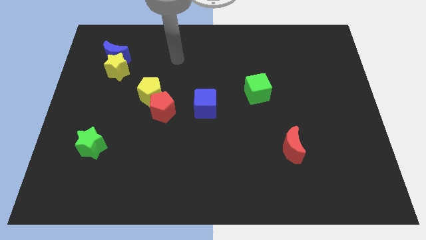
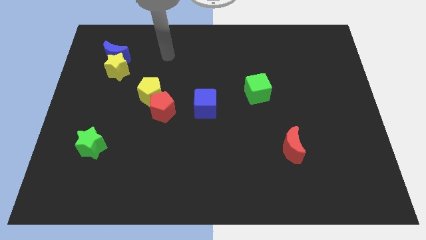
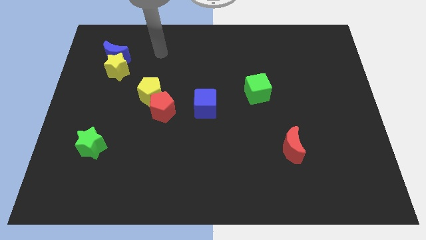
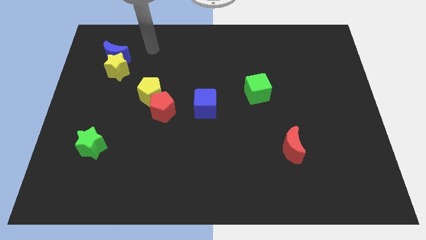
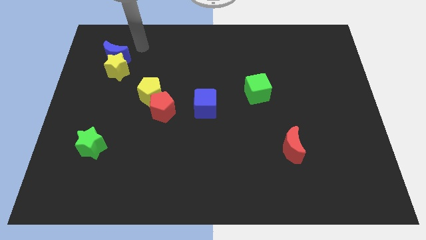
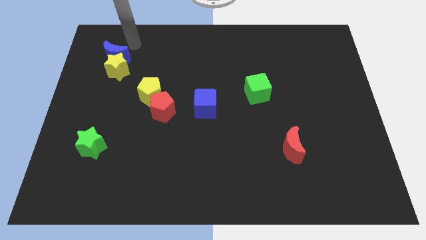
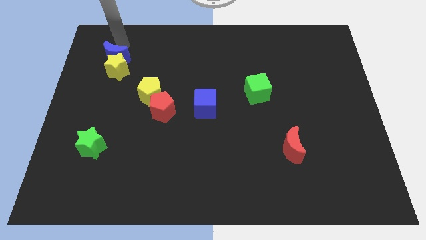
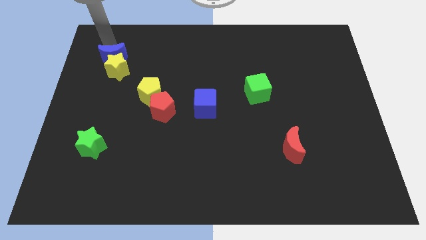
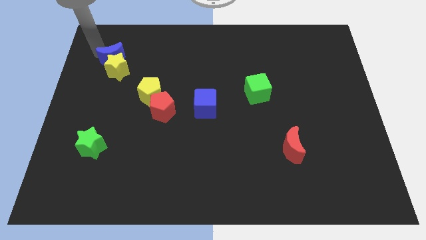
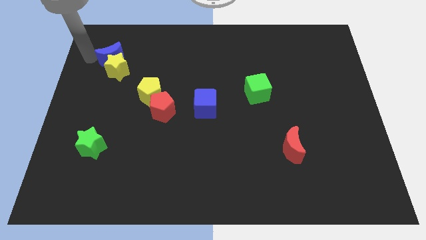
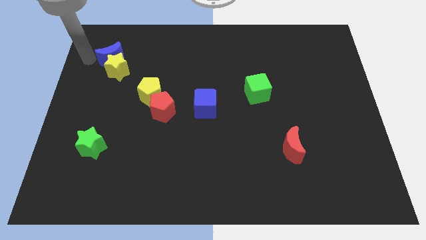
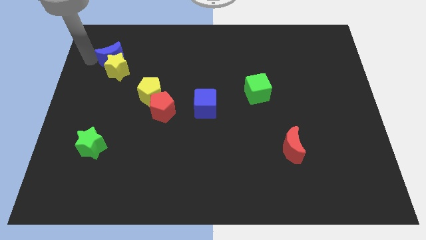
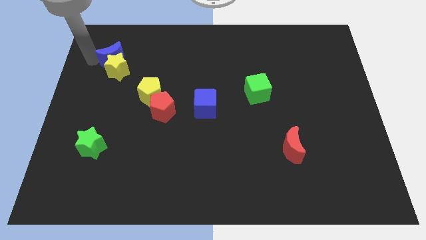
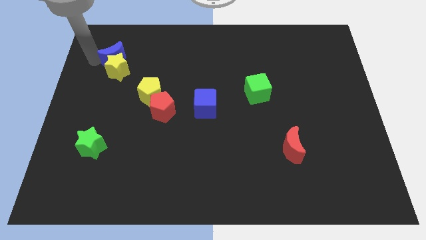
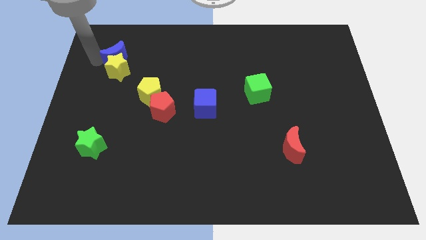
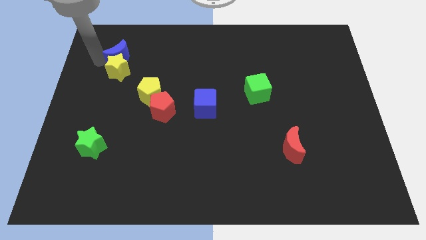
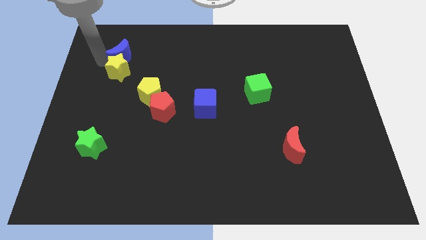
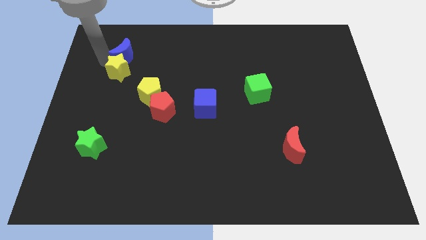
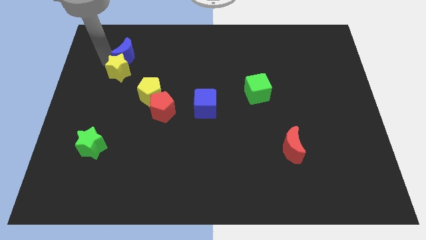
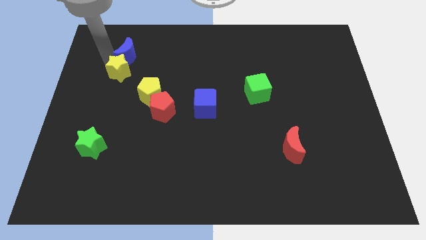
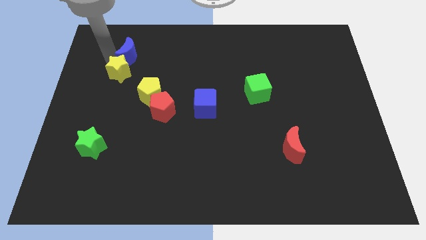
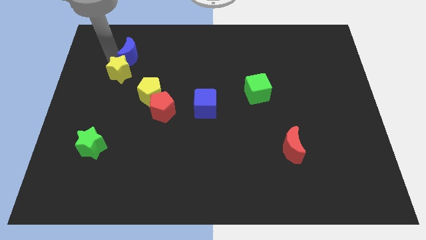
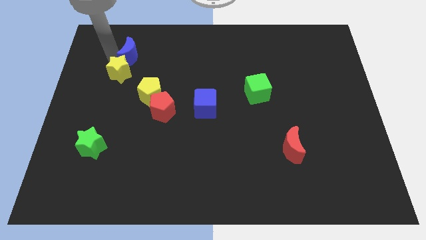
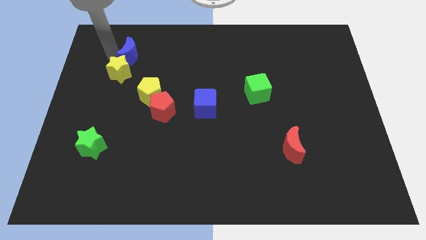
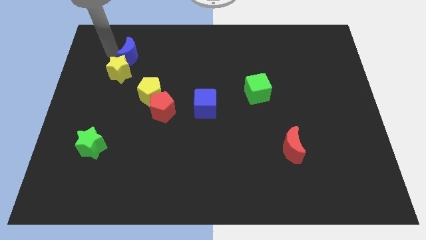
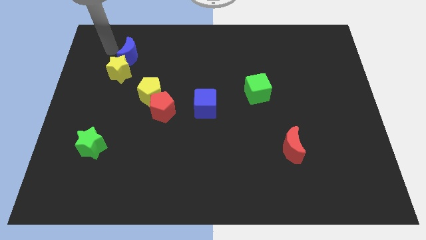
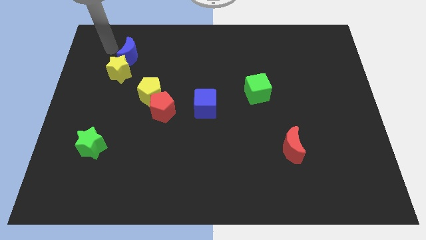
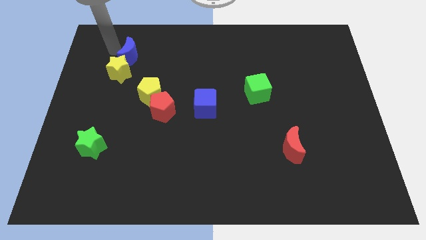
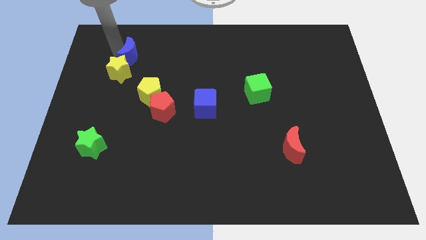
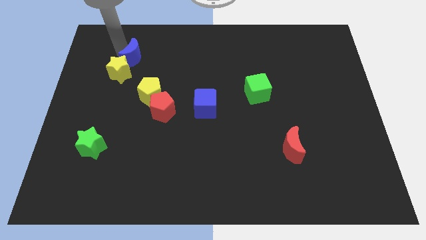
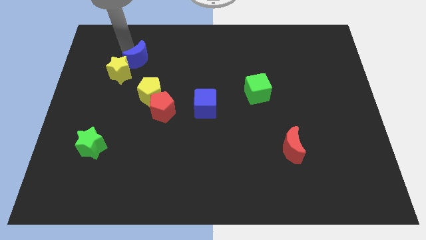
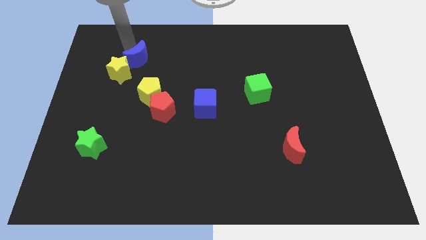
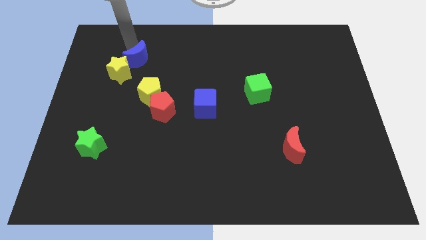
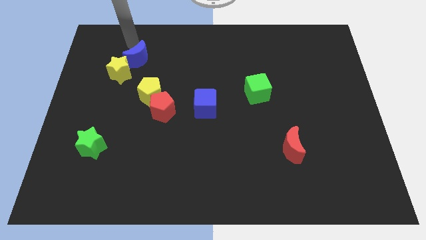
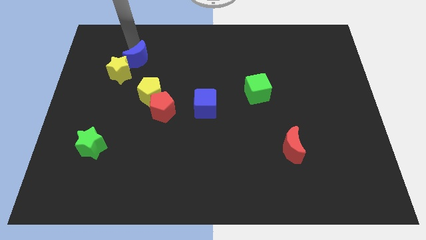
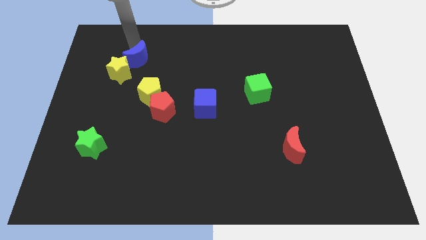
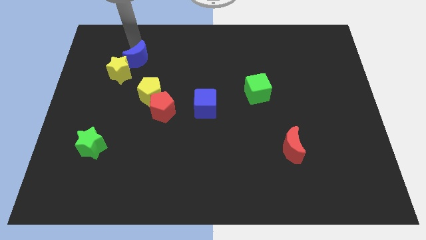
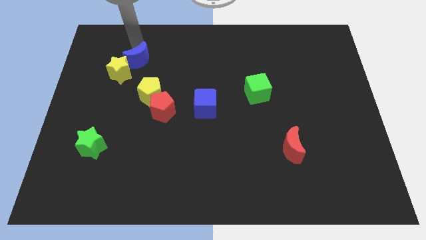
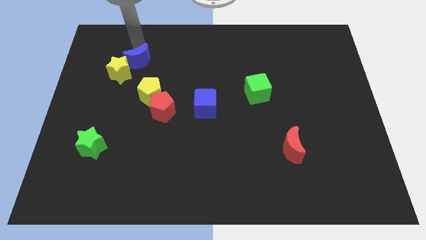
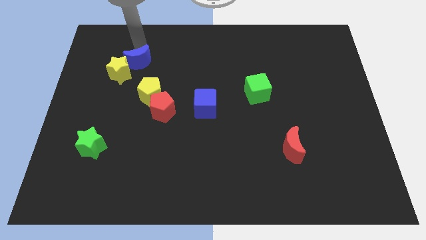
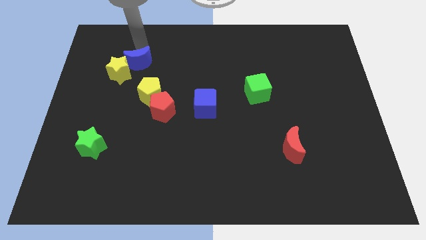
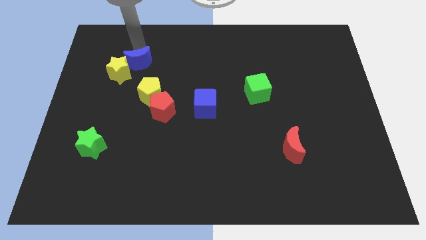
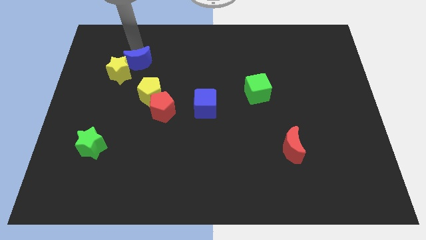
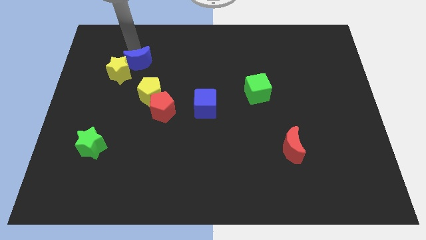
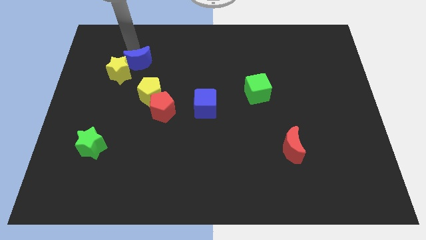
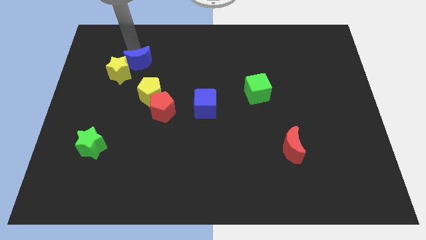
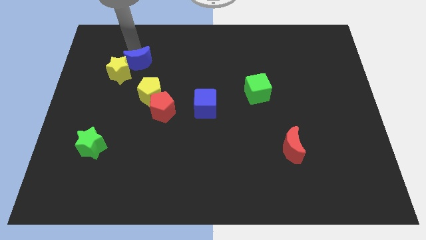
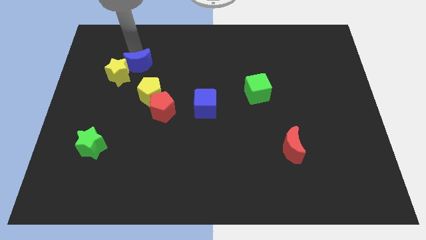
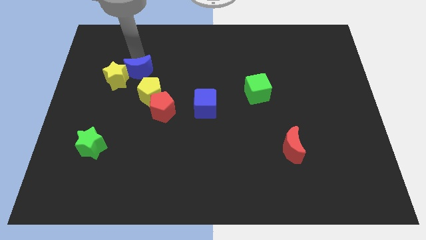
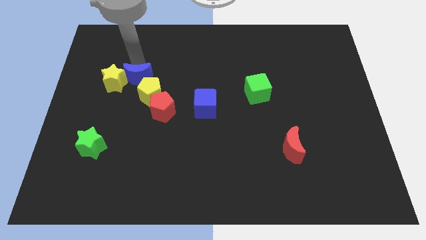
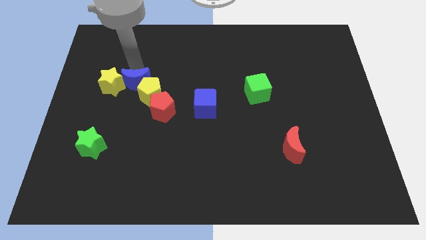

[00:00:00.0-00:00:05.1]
push the blue moon towards the yellow pentagon

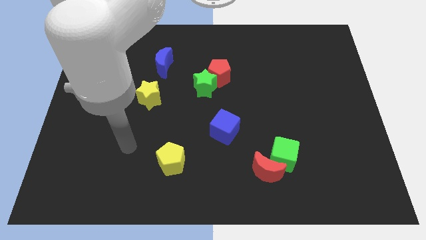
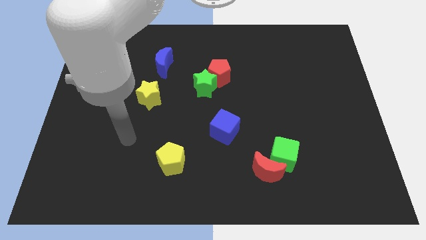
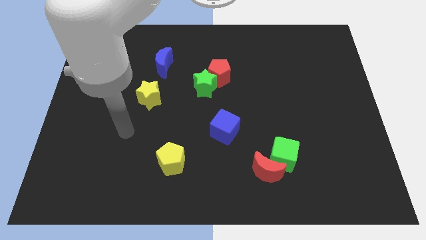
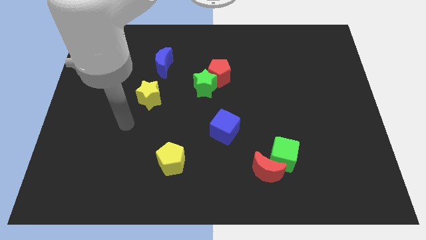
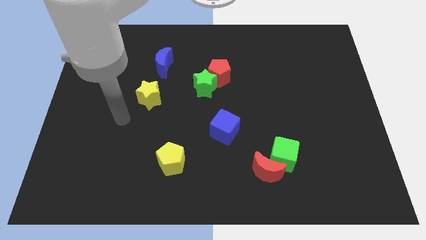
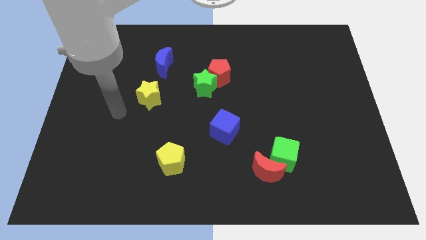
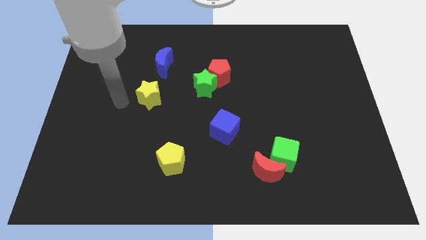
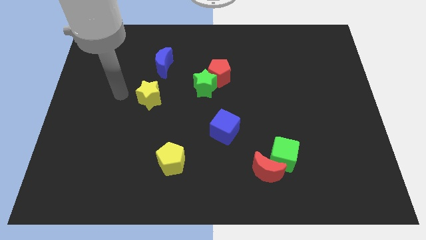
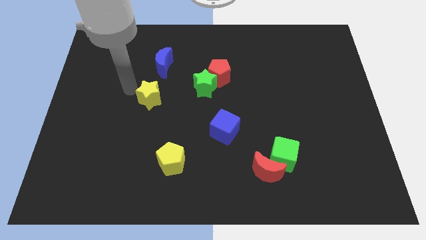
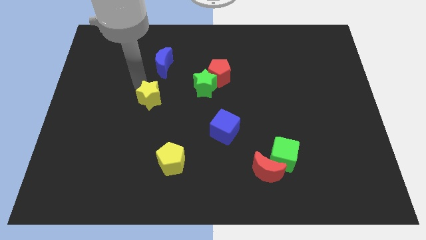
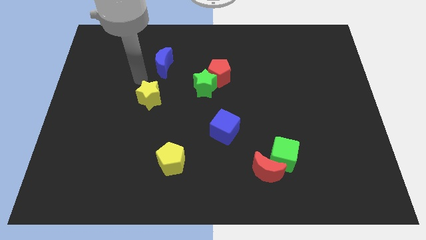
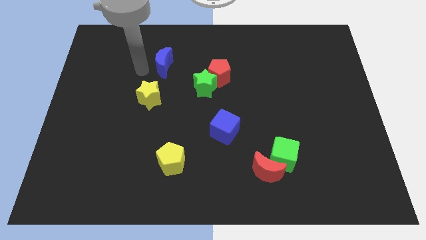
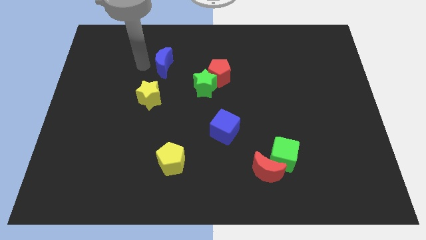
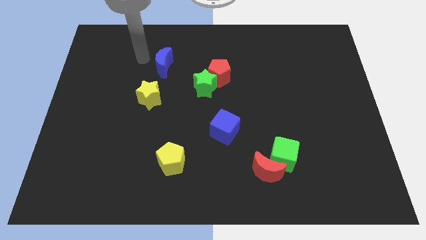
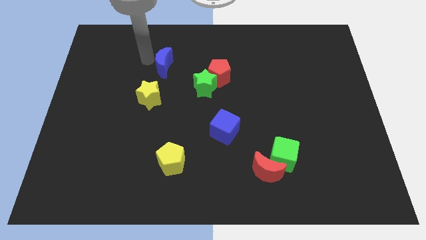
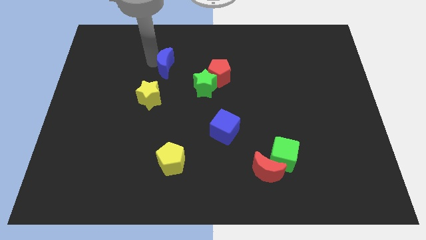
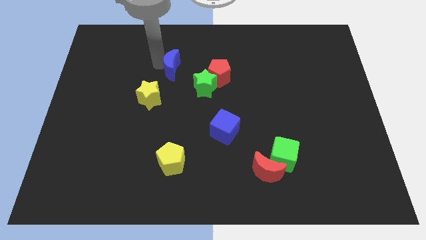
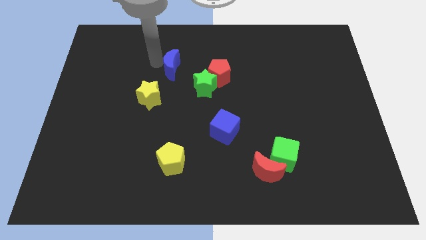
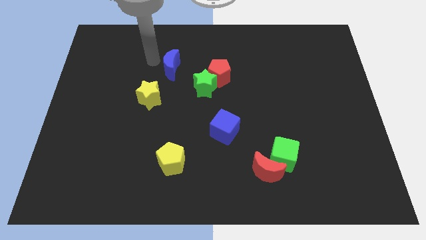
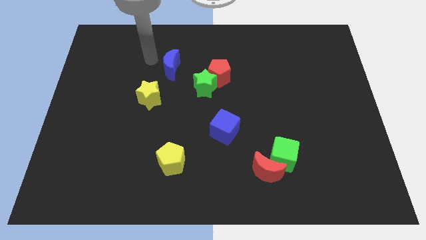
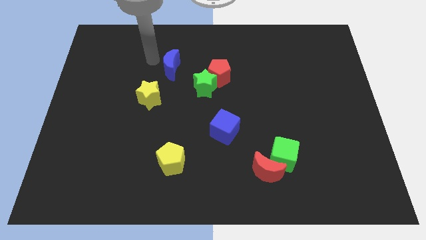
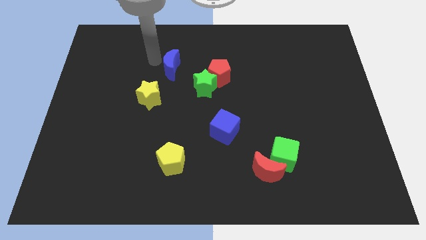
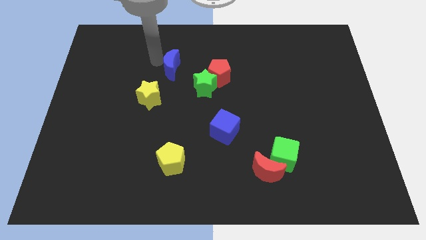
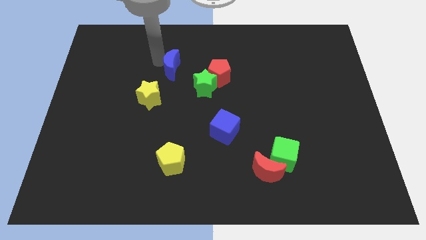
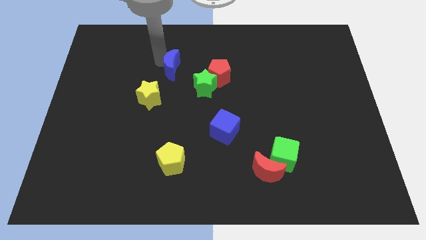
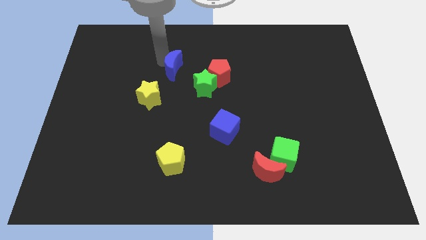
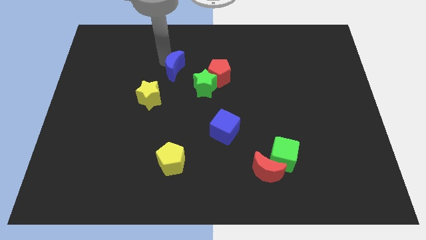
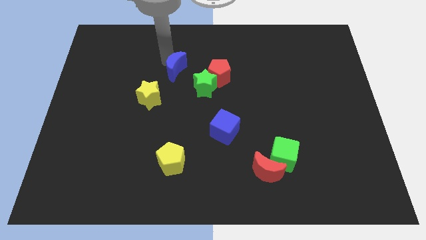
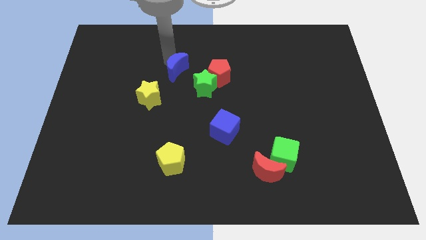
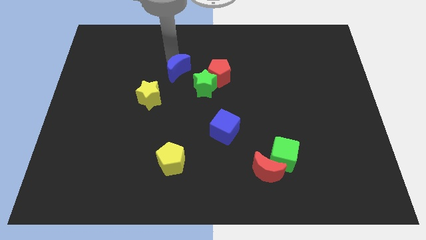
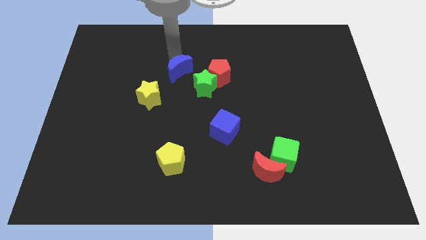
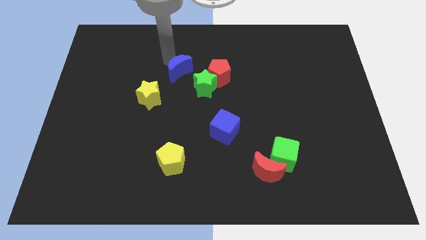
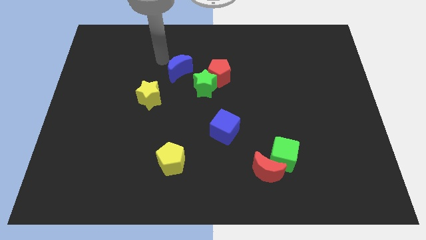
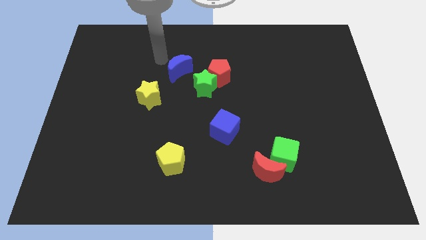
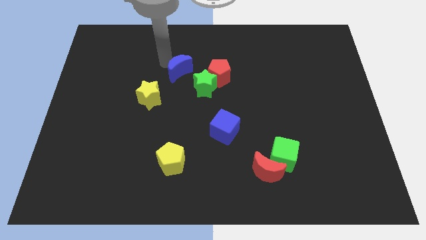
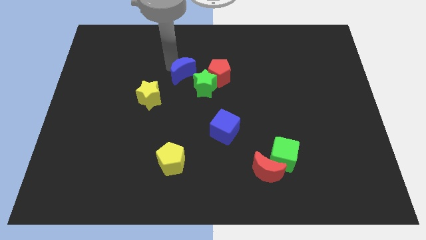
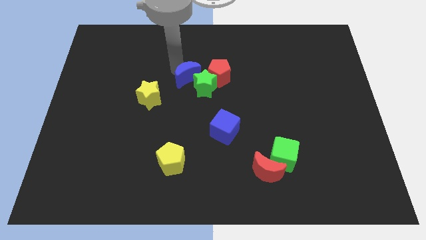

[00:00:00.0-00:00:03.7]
push the blue moon to the green star
